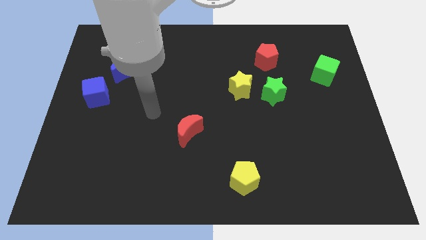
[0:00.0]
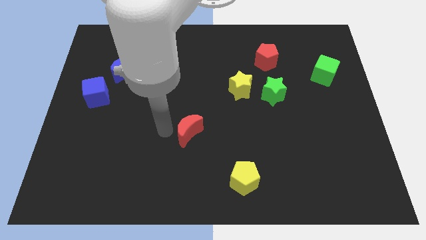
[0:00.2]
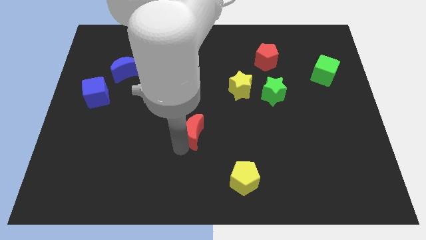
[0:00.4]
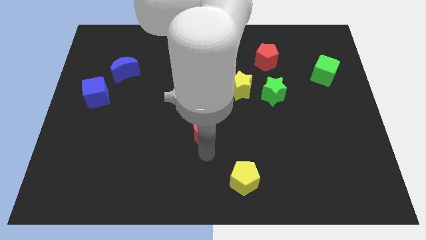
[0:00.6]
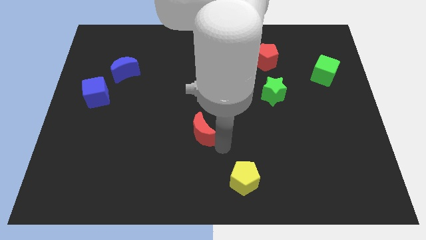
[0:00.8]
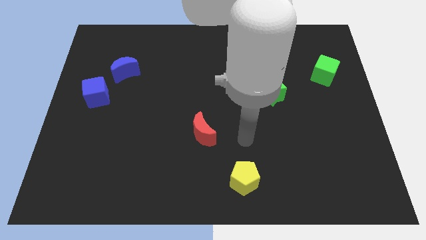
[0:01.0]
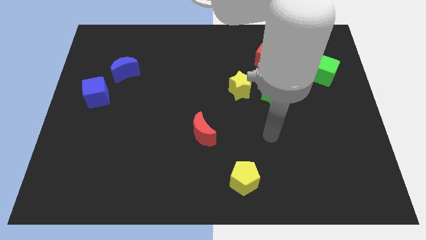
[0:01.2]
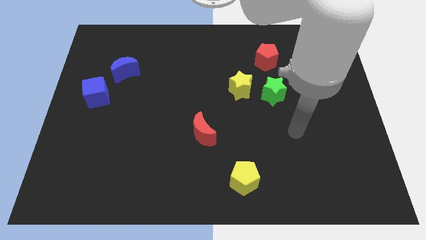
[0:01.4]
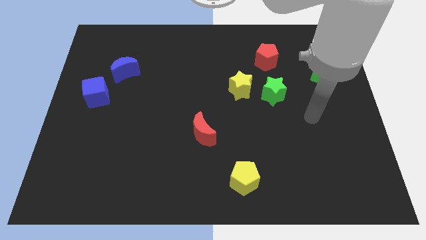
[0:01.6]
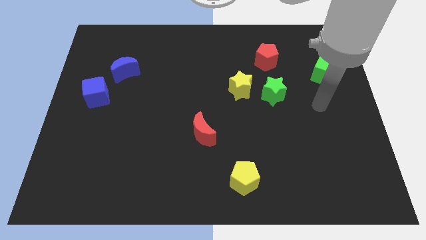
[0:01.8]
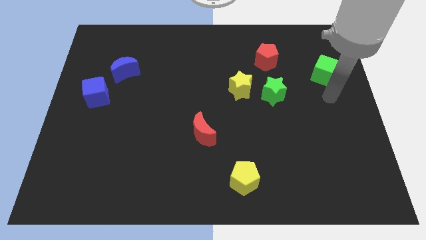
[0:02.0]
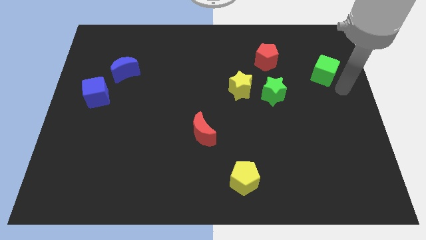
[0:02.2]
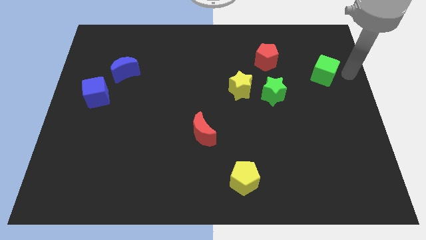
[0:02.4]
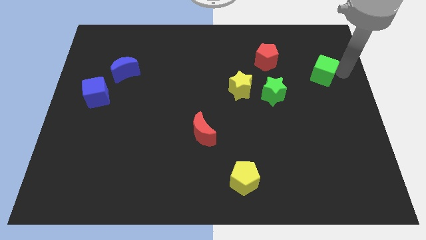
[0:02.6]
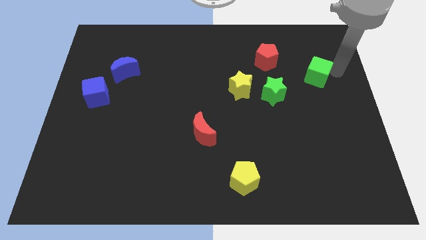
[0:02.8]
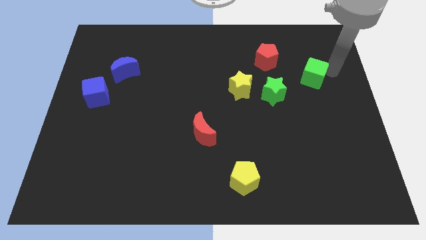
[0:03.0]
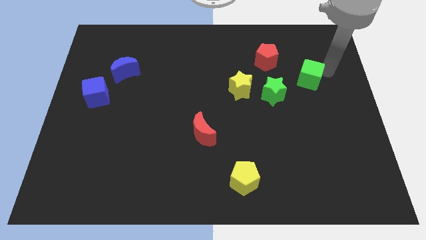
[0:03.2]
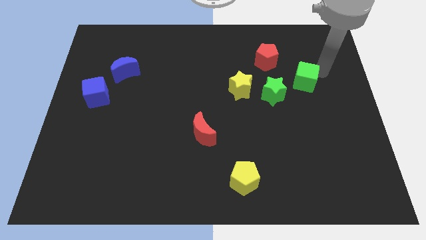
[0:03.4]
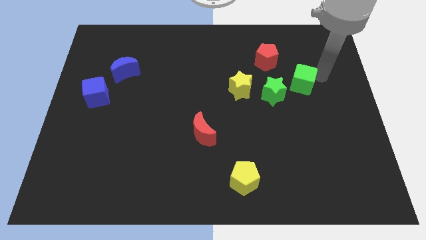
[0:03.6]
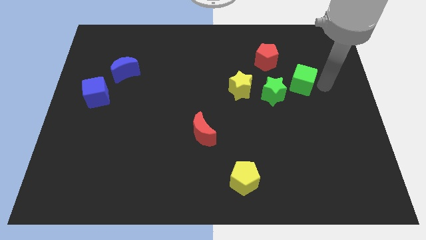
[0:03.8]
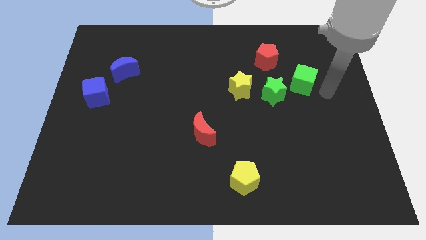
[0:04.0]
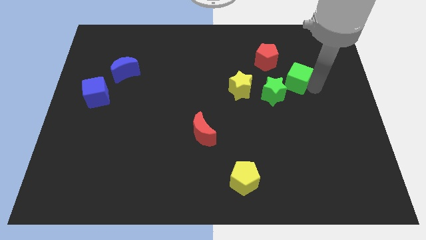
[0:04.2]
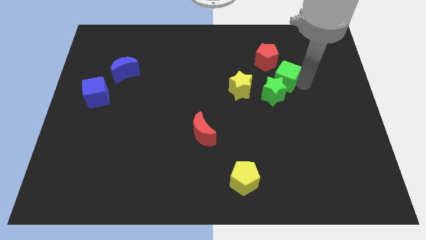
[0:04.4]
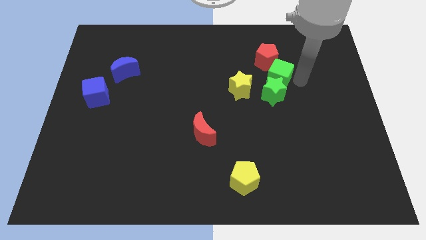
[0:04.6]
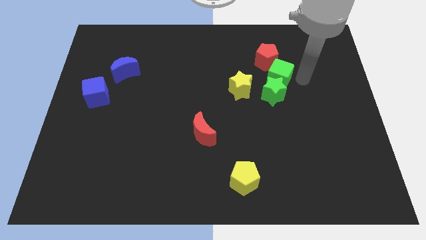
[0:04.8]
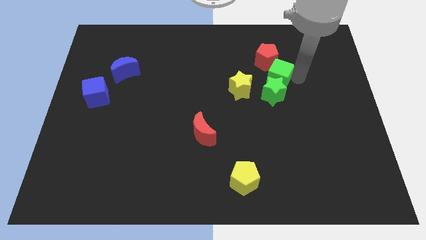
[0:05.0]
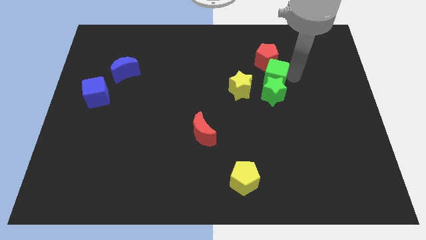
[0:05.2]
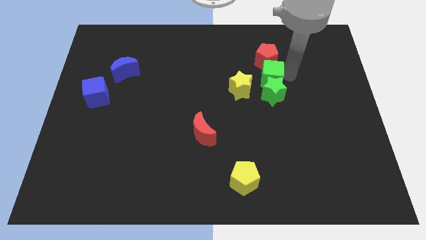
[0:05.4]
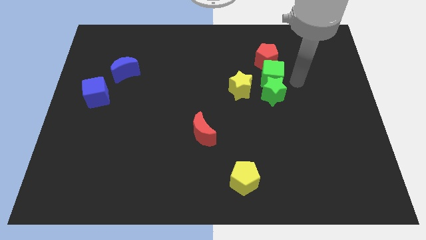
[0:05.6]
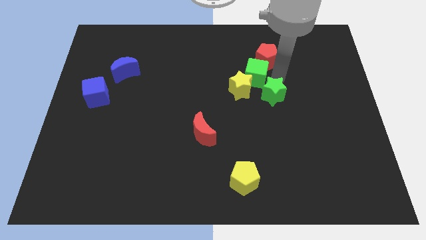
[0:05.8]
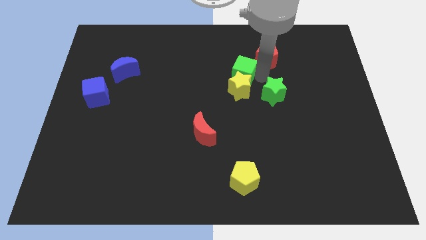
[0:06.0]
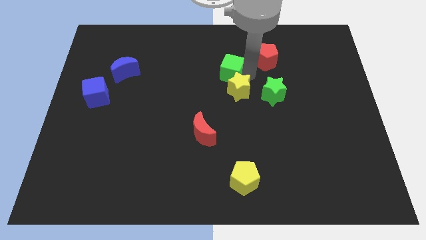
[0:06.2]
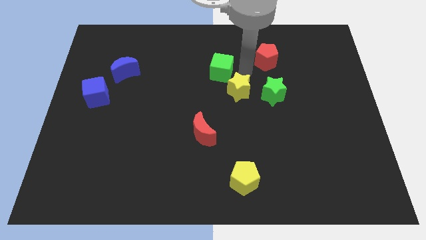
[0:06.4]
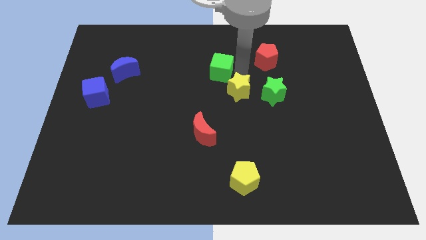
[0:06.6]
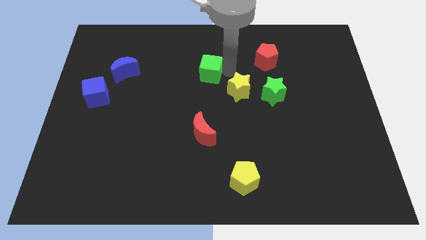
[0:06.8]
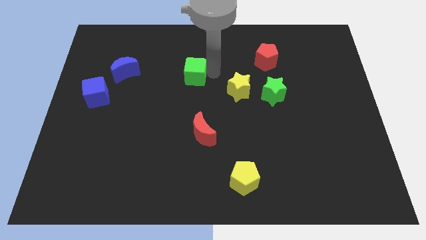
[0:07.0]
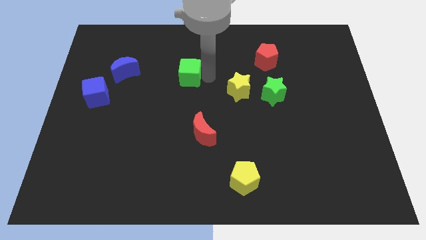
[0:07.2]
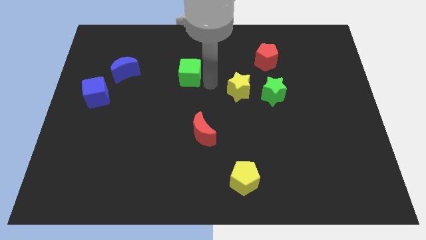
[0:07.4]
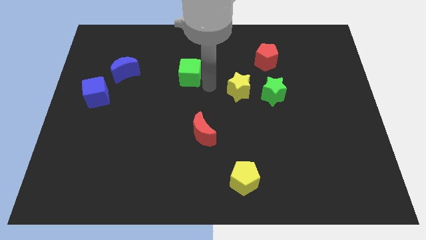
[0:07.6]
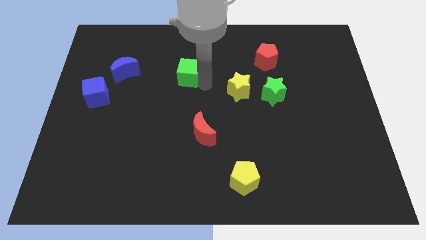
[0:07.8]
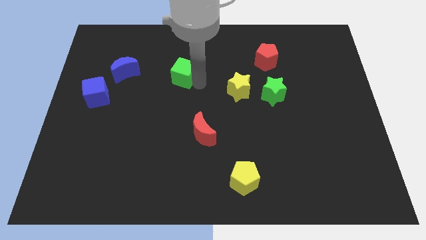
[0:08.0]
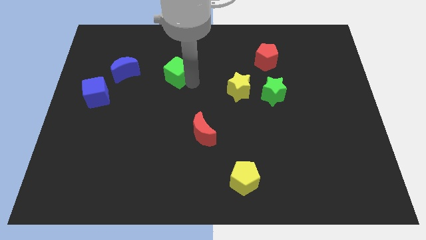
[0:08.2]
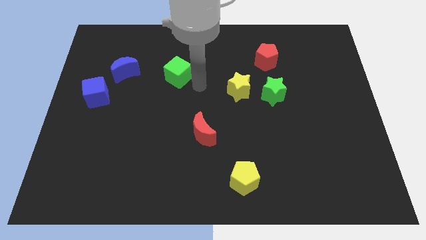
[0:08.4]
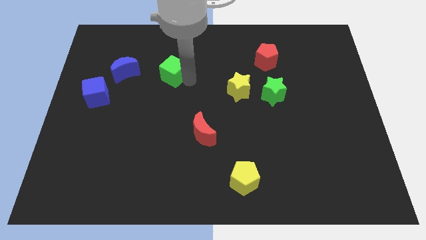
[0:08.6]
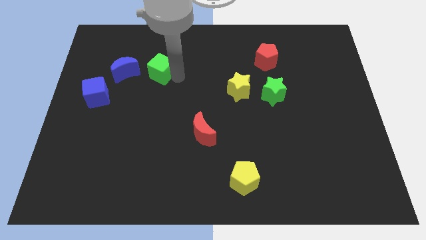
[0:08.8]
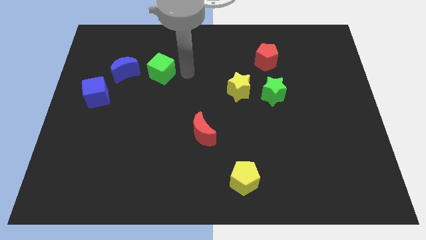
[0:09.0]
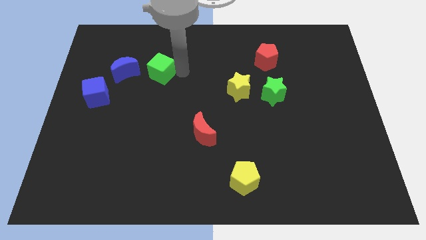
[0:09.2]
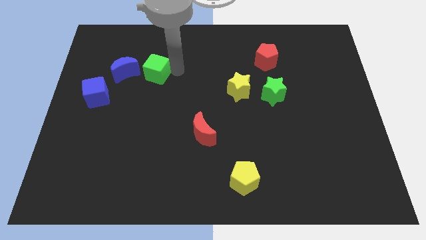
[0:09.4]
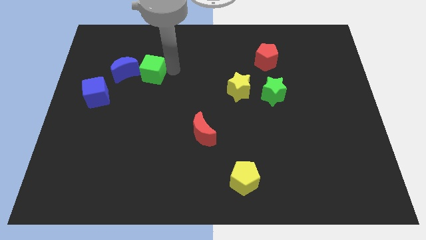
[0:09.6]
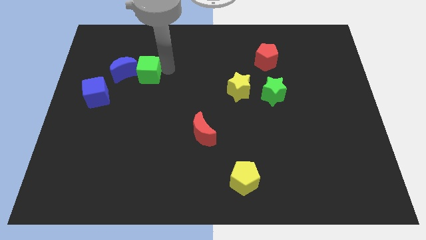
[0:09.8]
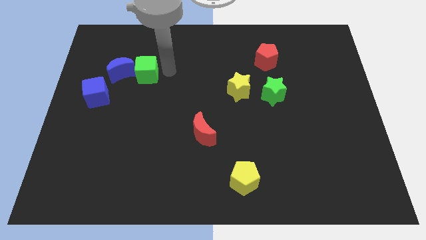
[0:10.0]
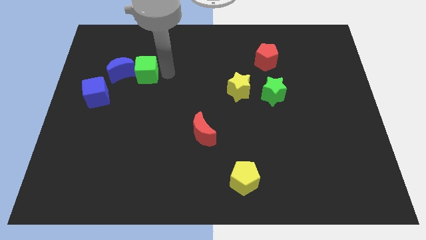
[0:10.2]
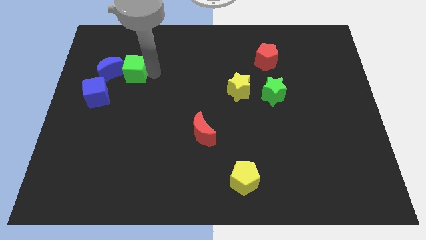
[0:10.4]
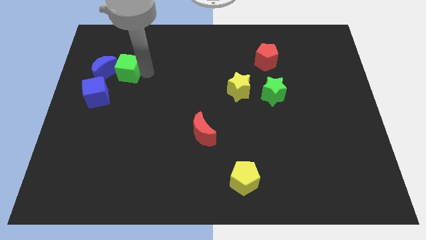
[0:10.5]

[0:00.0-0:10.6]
slide the green cube close to the blue moon

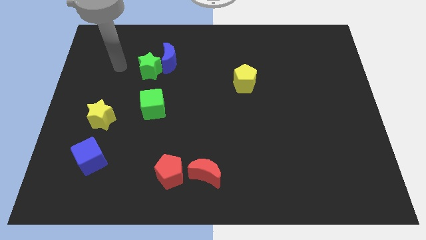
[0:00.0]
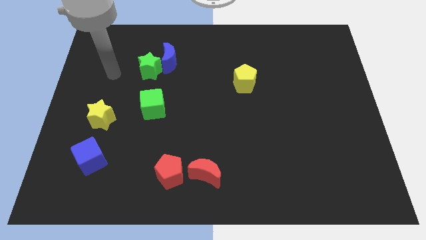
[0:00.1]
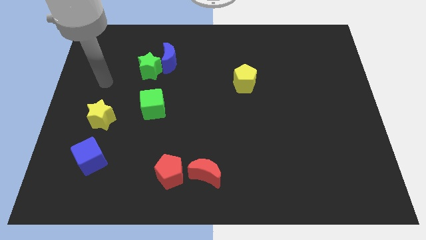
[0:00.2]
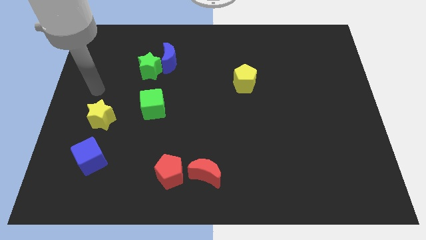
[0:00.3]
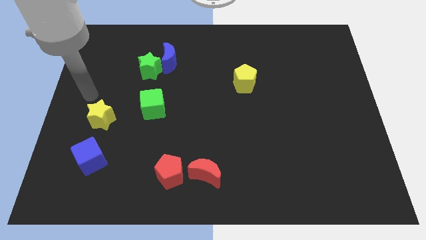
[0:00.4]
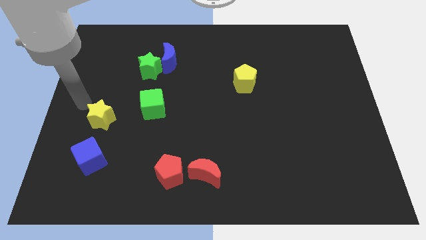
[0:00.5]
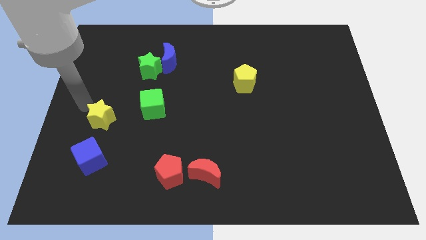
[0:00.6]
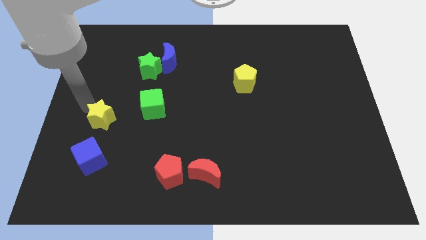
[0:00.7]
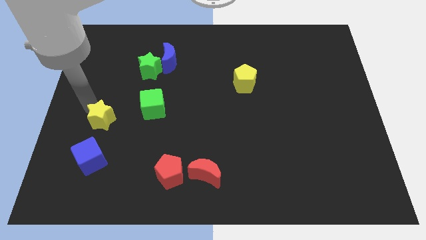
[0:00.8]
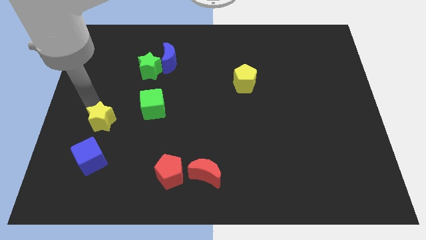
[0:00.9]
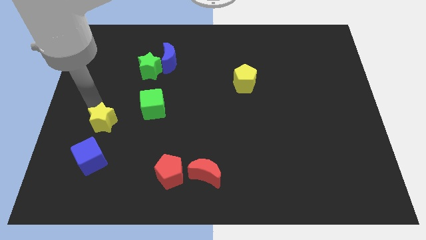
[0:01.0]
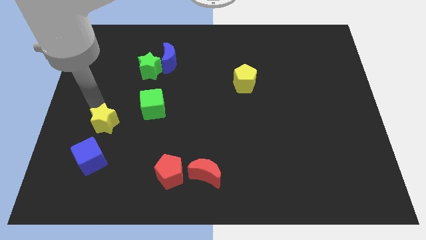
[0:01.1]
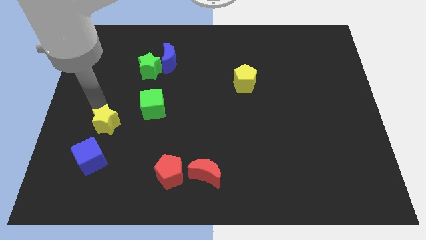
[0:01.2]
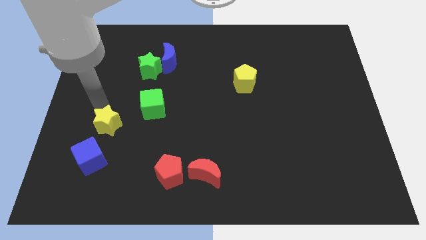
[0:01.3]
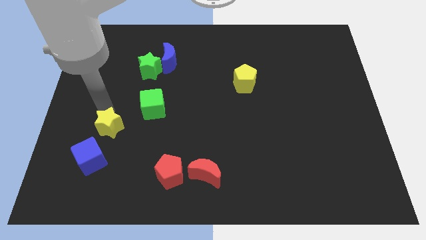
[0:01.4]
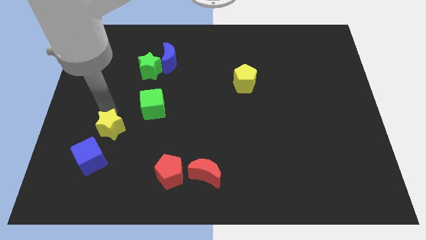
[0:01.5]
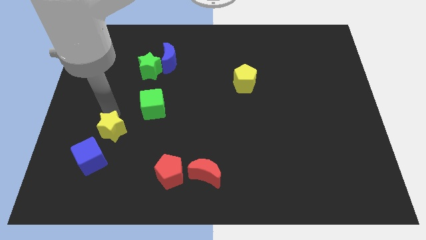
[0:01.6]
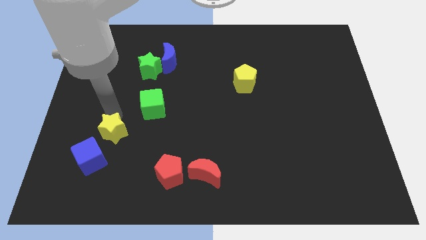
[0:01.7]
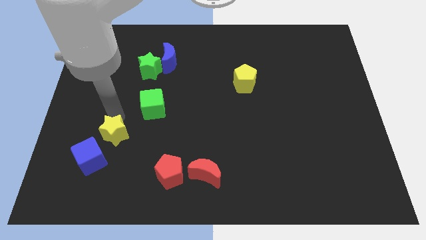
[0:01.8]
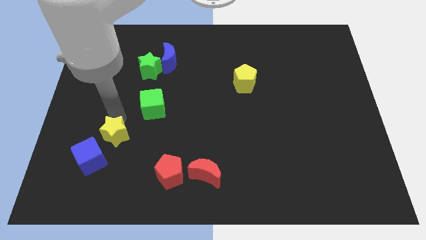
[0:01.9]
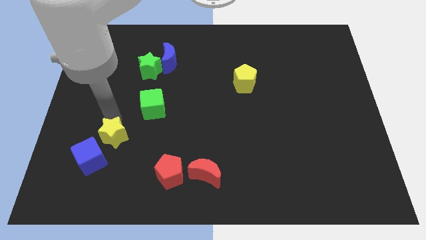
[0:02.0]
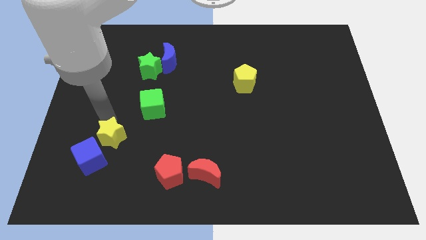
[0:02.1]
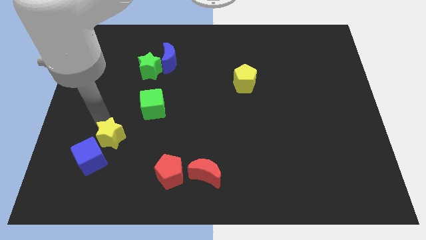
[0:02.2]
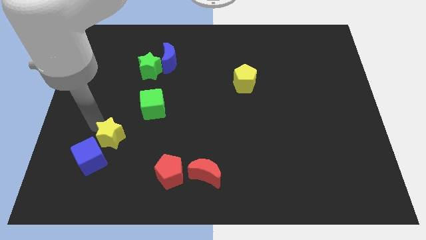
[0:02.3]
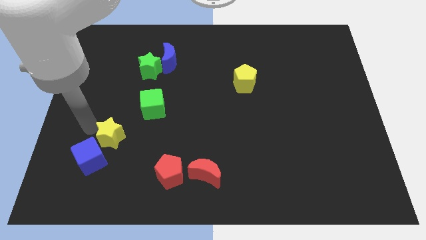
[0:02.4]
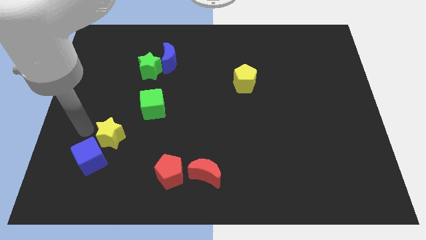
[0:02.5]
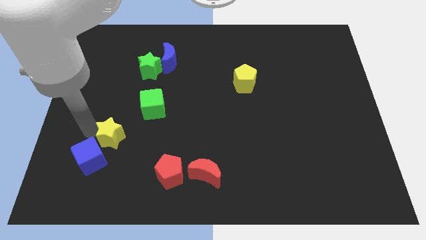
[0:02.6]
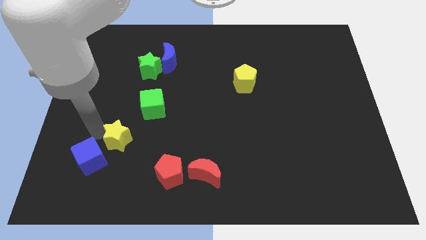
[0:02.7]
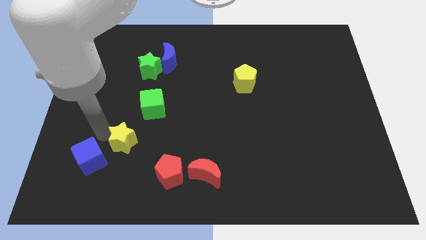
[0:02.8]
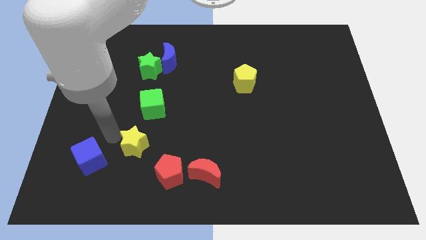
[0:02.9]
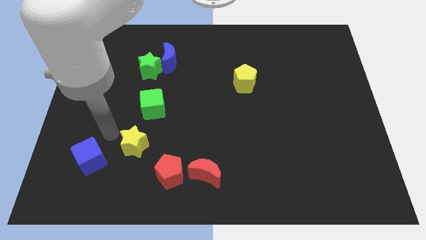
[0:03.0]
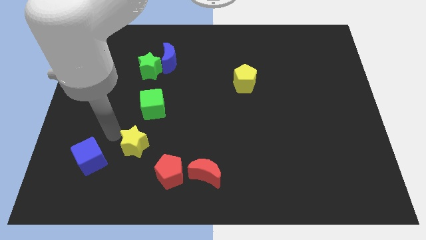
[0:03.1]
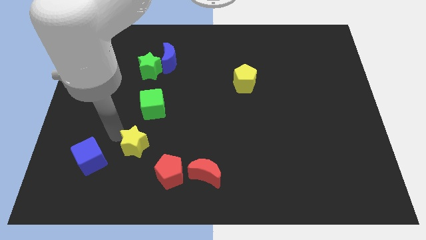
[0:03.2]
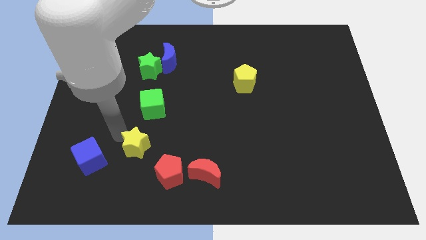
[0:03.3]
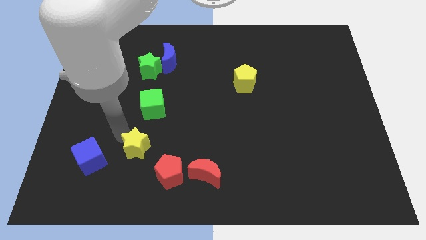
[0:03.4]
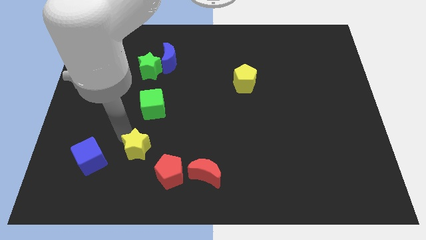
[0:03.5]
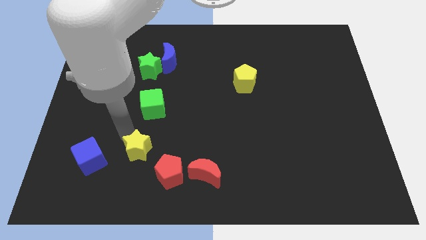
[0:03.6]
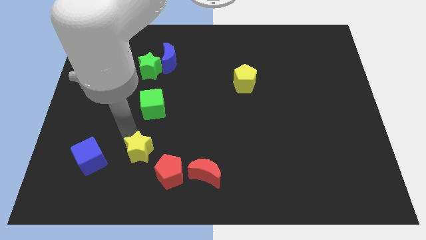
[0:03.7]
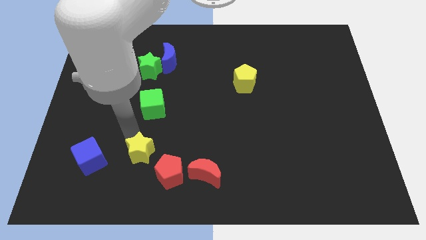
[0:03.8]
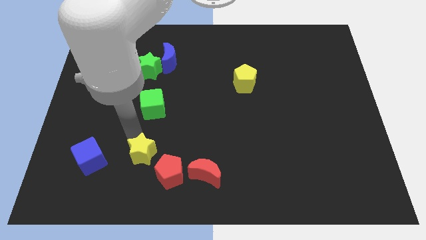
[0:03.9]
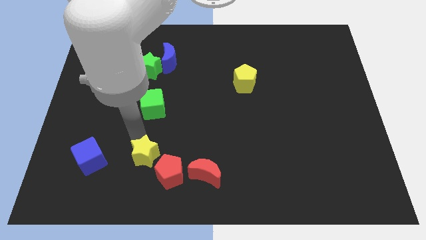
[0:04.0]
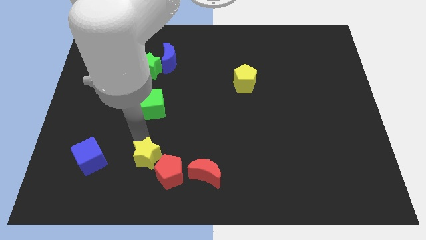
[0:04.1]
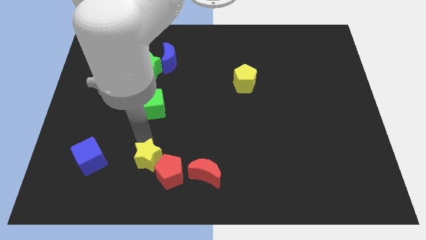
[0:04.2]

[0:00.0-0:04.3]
put the yellow star next to the red pentagon
